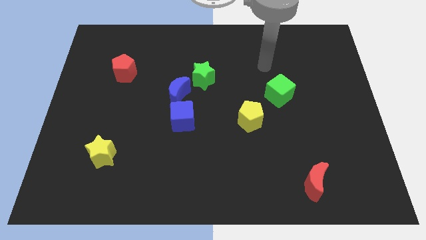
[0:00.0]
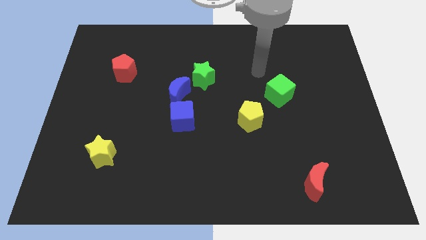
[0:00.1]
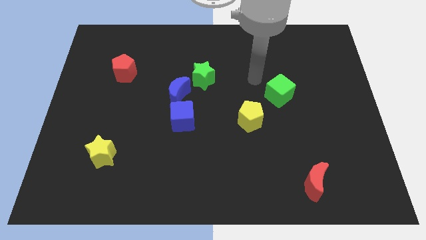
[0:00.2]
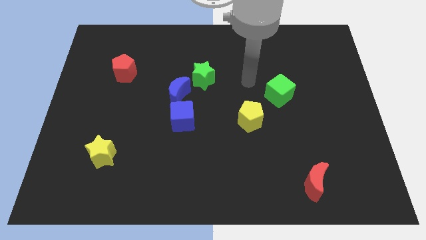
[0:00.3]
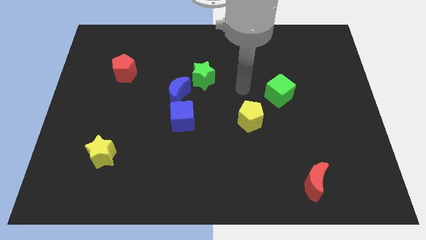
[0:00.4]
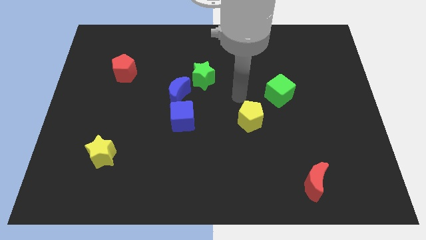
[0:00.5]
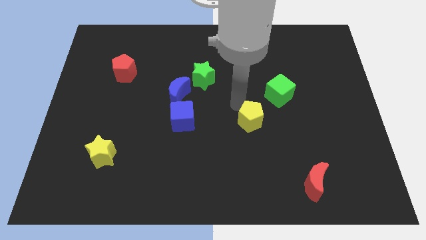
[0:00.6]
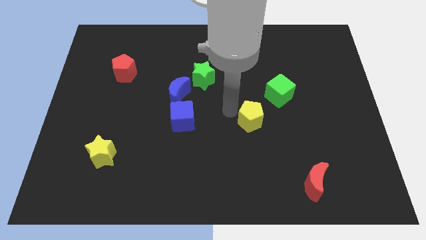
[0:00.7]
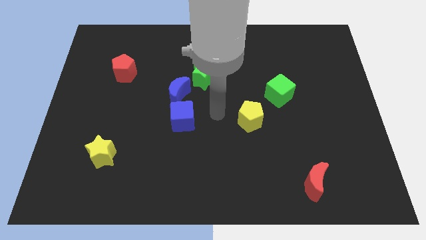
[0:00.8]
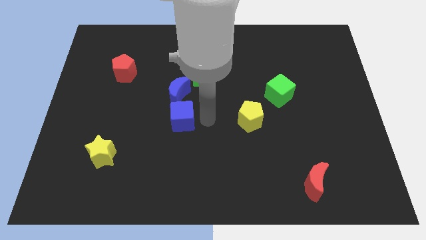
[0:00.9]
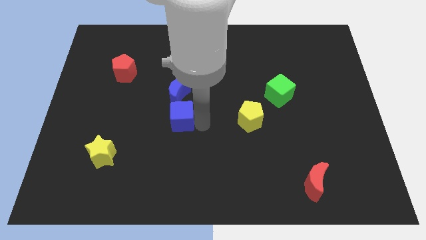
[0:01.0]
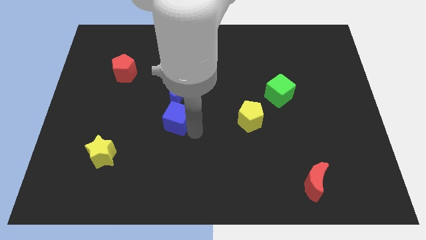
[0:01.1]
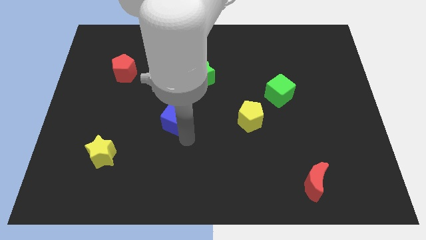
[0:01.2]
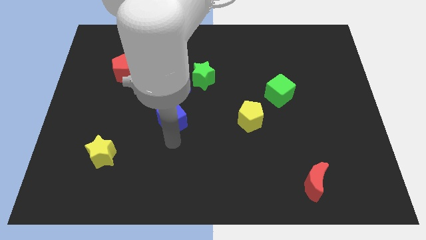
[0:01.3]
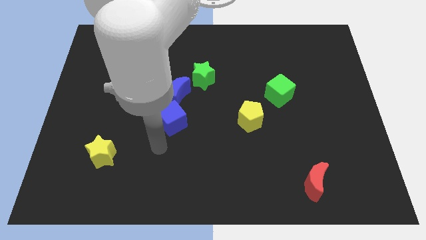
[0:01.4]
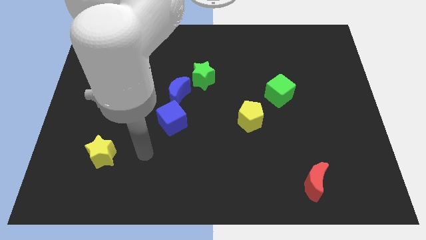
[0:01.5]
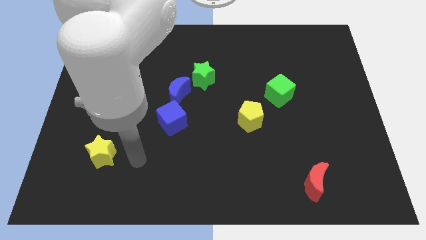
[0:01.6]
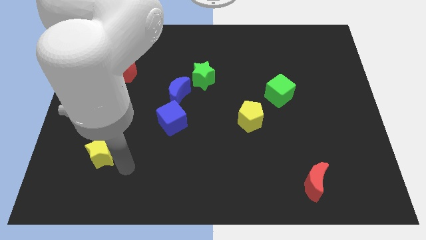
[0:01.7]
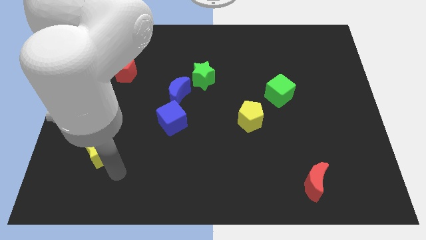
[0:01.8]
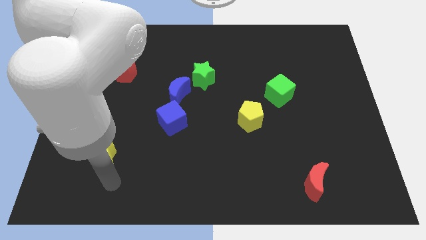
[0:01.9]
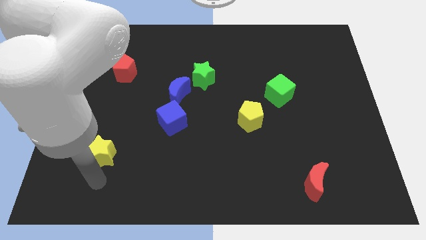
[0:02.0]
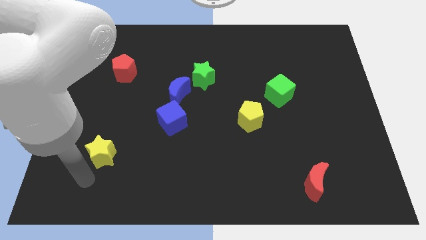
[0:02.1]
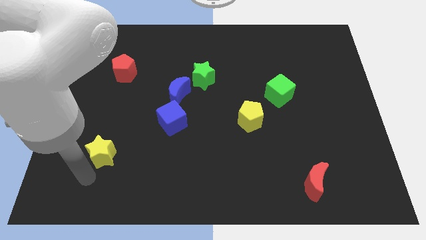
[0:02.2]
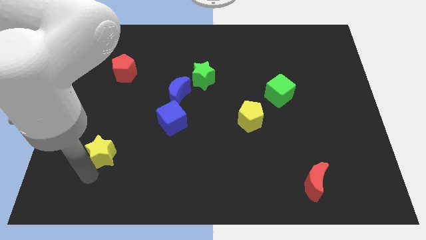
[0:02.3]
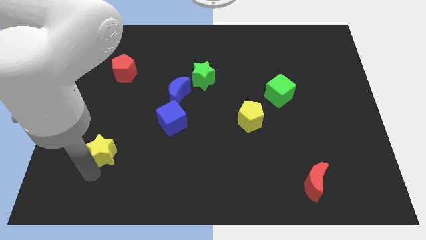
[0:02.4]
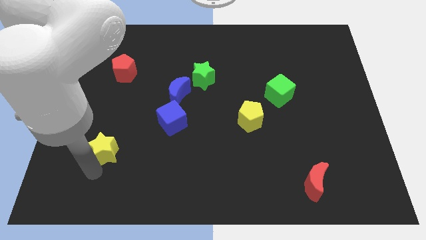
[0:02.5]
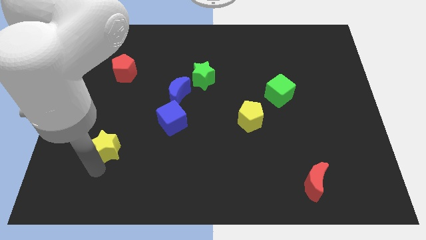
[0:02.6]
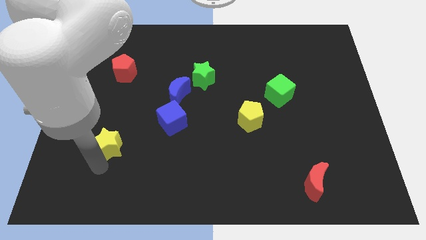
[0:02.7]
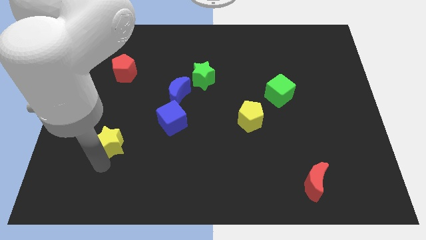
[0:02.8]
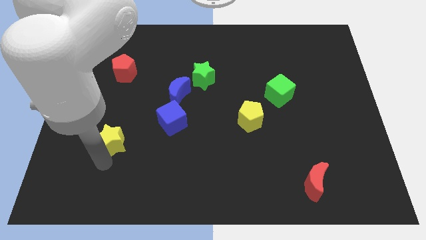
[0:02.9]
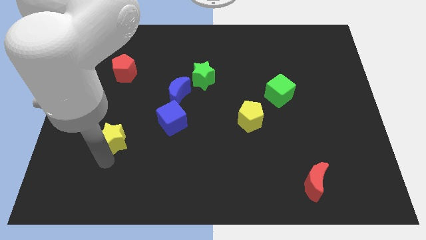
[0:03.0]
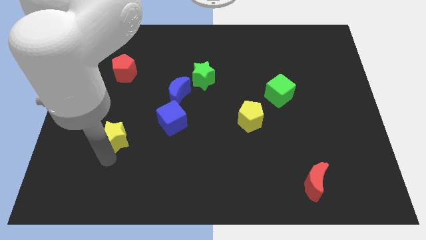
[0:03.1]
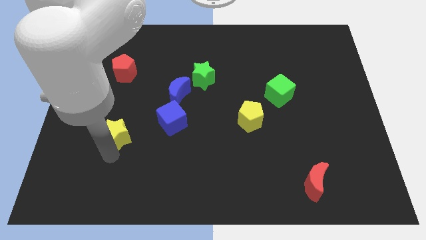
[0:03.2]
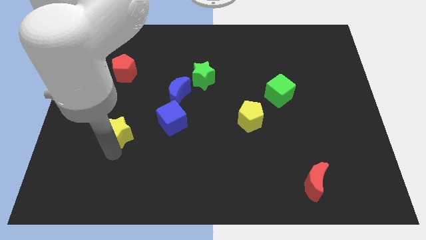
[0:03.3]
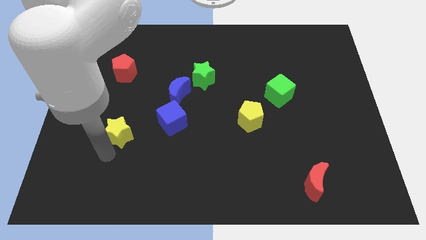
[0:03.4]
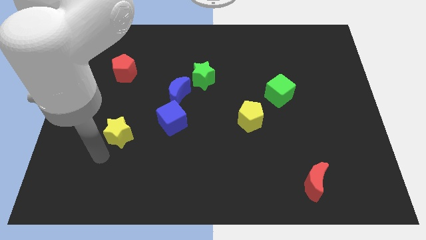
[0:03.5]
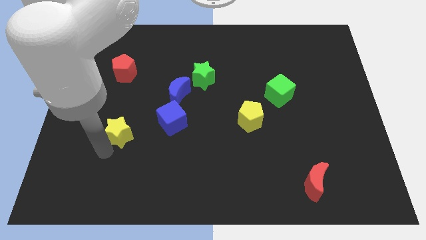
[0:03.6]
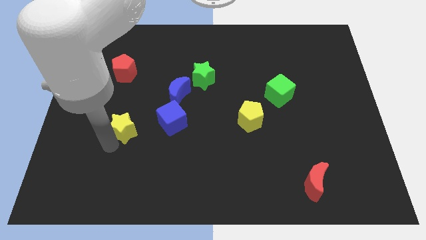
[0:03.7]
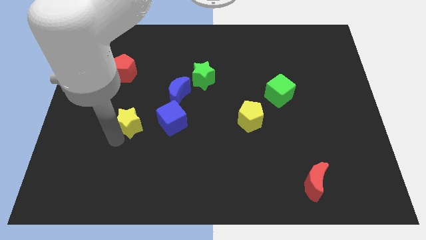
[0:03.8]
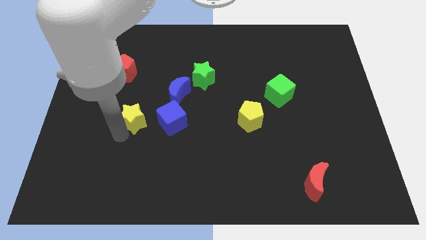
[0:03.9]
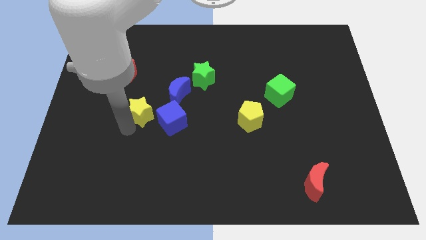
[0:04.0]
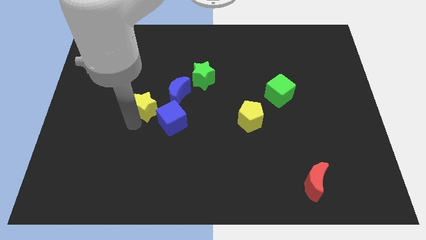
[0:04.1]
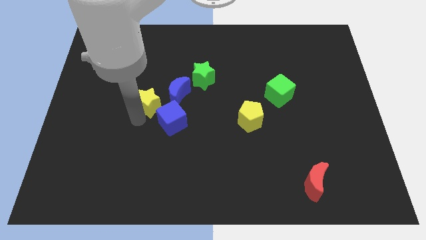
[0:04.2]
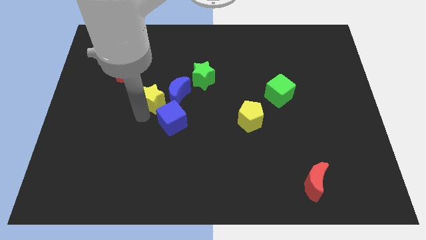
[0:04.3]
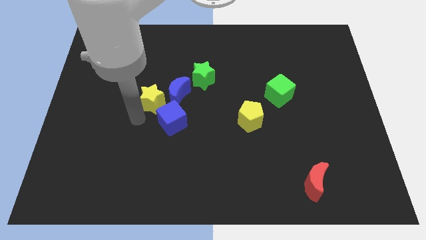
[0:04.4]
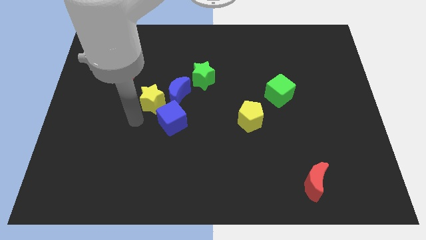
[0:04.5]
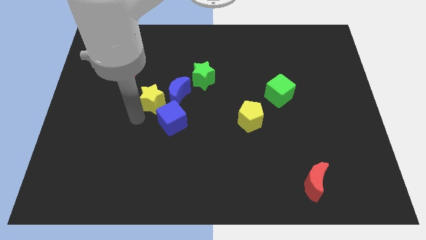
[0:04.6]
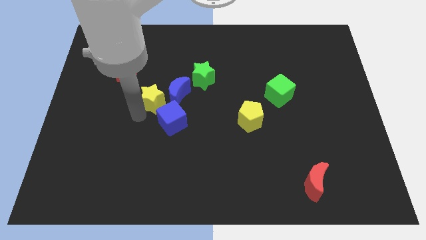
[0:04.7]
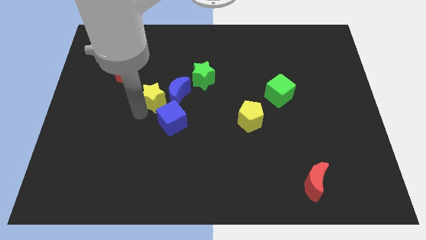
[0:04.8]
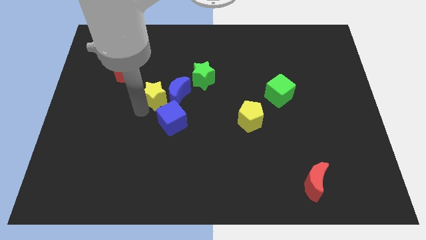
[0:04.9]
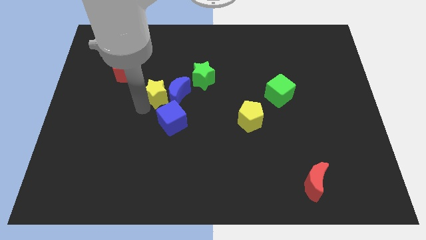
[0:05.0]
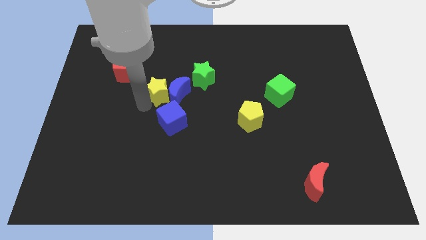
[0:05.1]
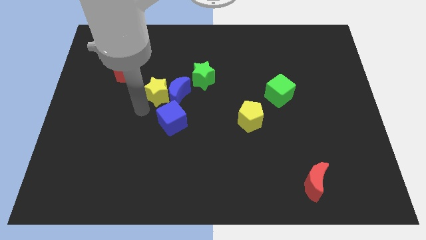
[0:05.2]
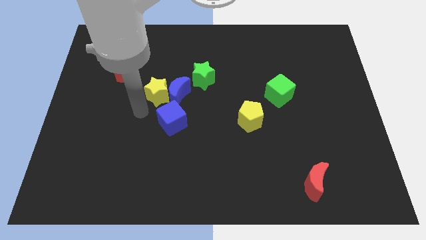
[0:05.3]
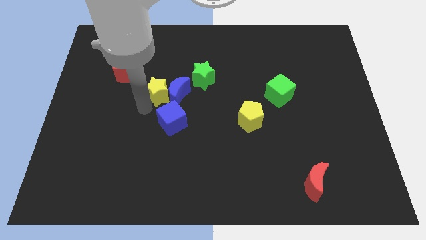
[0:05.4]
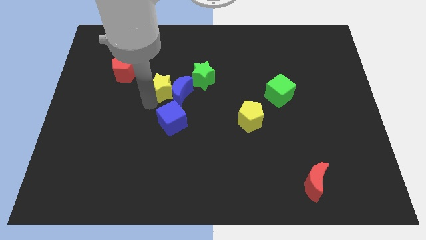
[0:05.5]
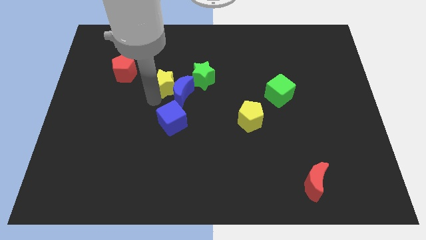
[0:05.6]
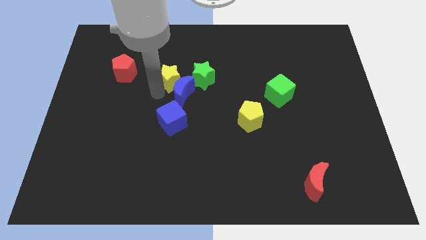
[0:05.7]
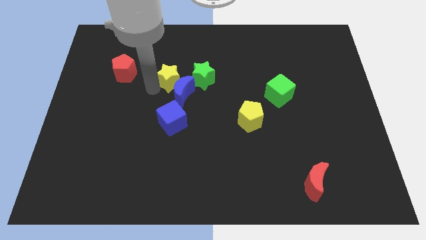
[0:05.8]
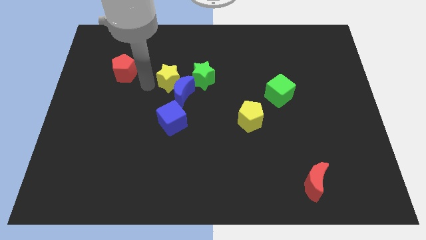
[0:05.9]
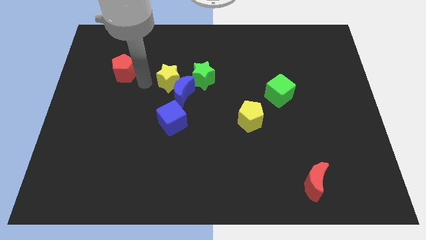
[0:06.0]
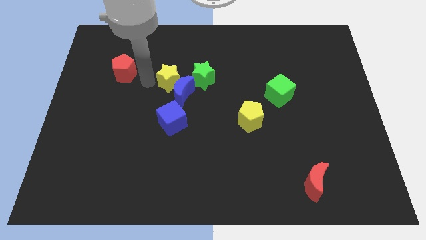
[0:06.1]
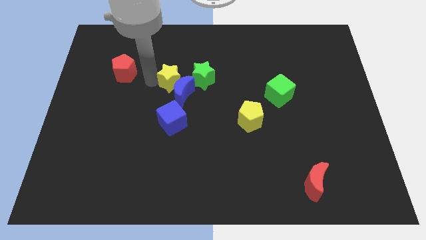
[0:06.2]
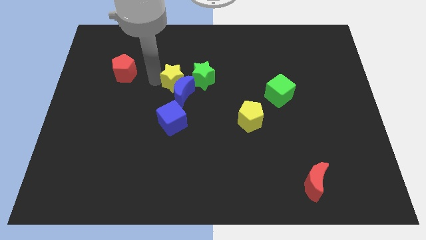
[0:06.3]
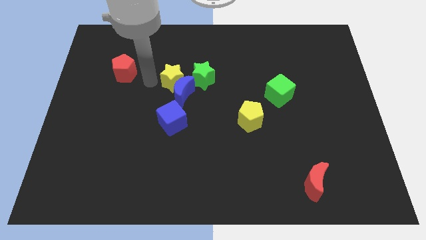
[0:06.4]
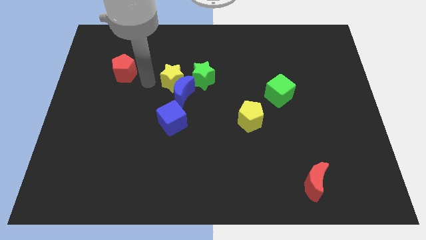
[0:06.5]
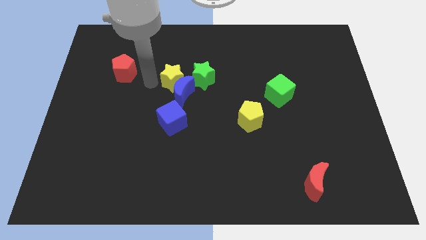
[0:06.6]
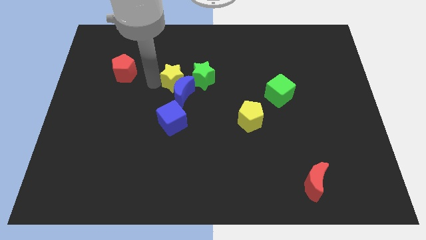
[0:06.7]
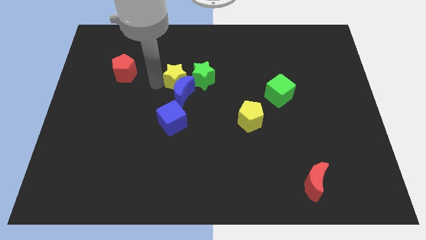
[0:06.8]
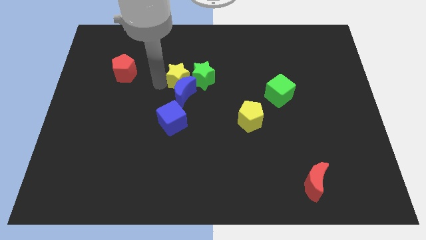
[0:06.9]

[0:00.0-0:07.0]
put the yellow star to the green star

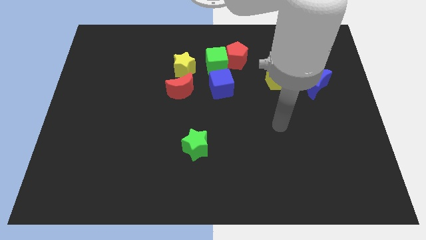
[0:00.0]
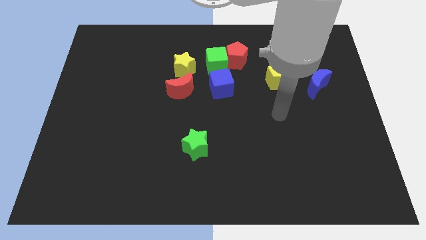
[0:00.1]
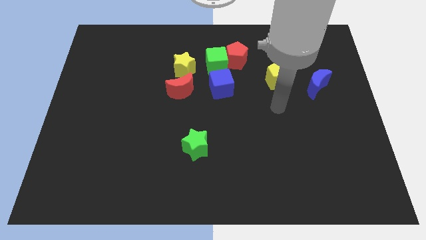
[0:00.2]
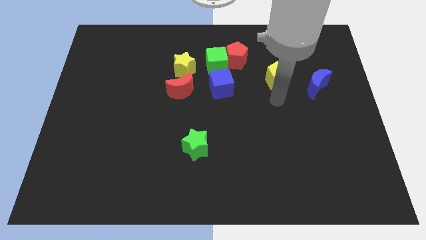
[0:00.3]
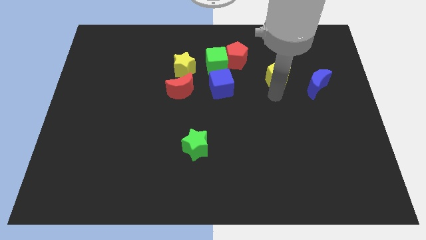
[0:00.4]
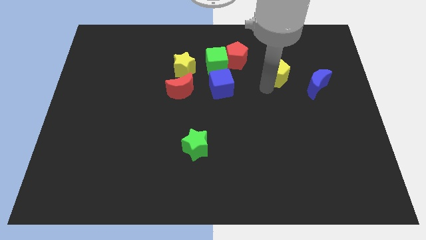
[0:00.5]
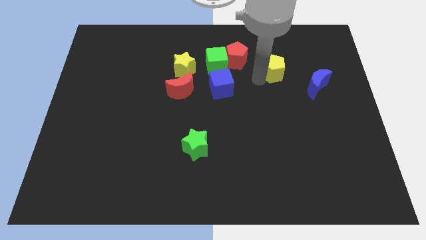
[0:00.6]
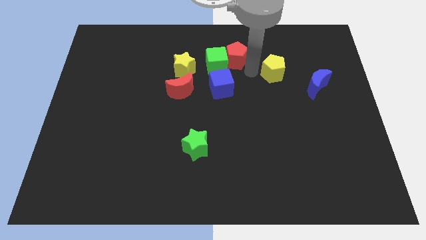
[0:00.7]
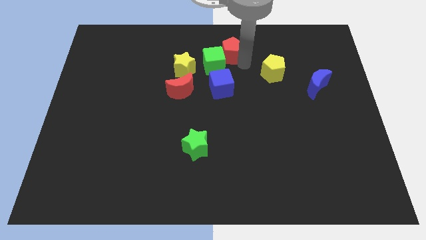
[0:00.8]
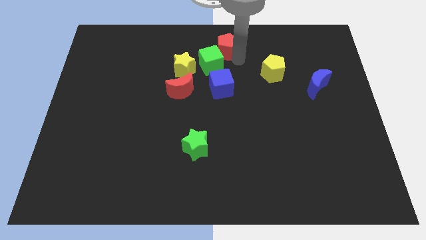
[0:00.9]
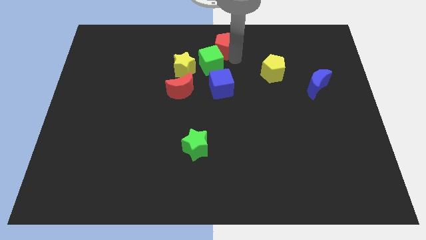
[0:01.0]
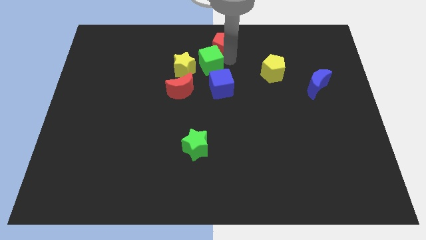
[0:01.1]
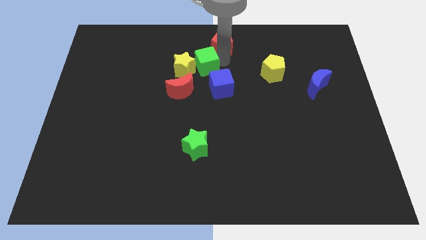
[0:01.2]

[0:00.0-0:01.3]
push the green cube close to the yellow star
